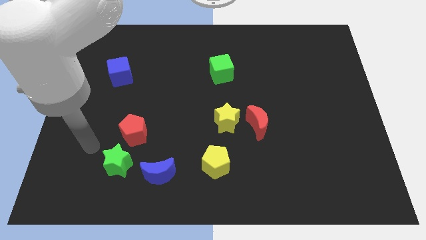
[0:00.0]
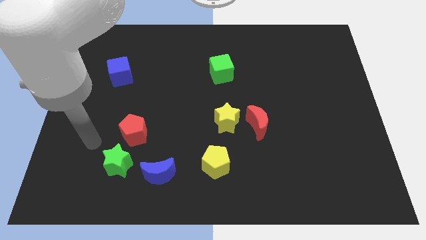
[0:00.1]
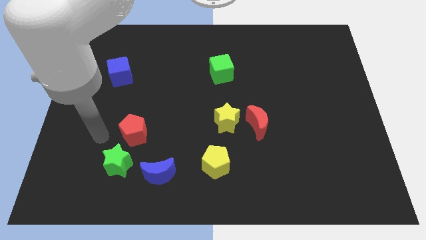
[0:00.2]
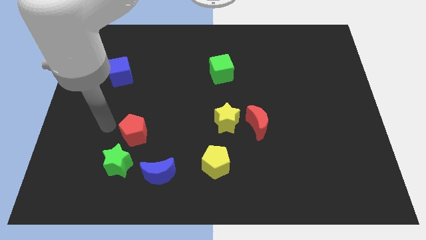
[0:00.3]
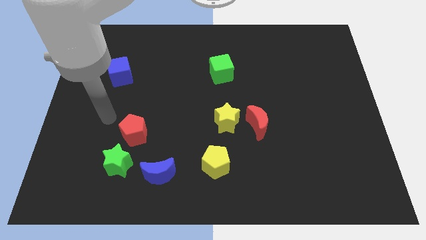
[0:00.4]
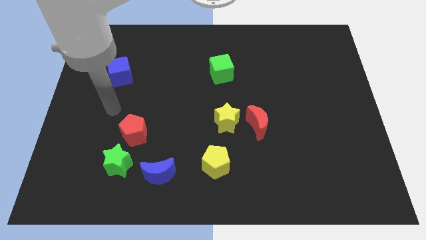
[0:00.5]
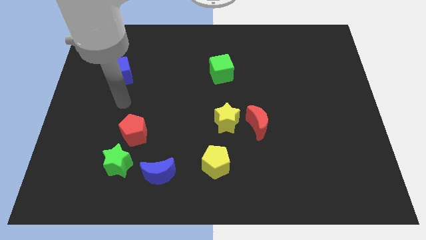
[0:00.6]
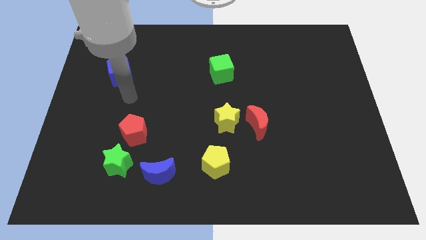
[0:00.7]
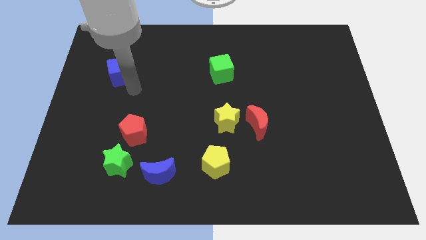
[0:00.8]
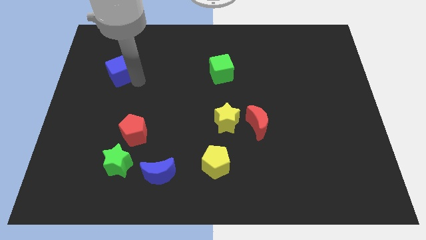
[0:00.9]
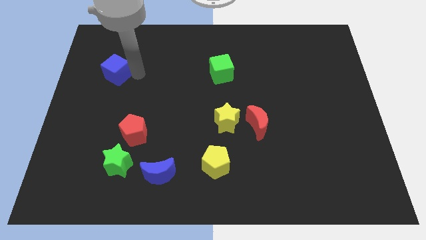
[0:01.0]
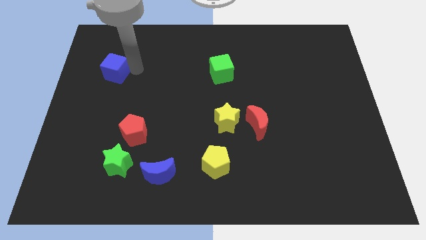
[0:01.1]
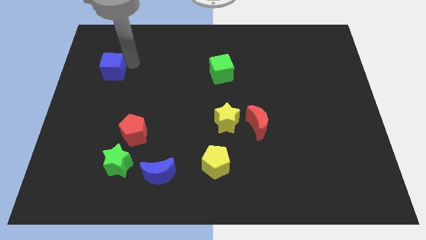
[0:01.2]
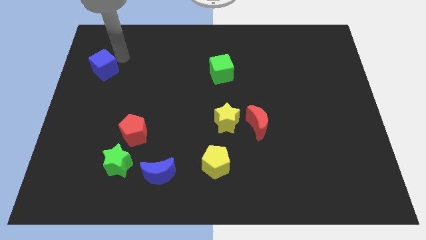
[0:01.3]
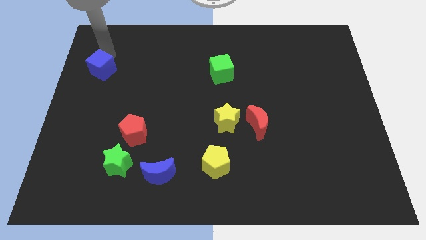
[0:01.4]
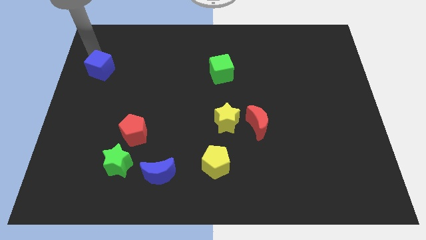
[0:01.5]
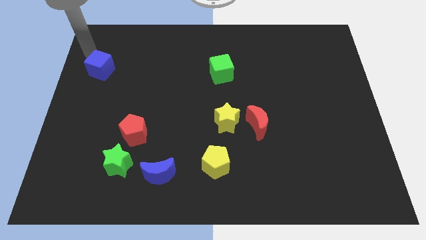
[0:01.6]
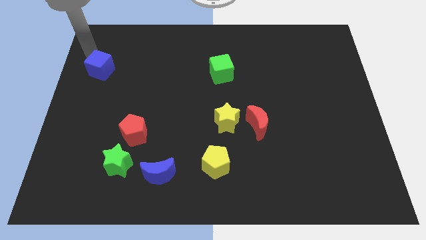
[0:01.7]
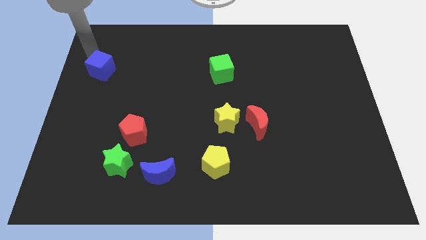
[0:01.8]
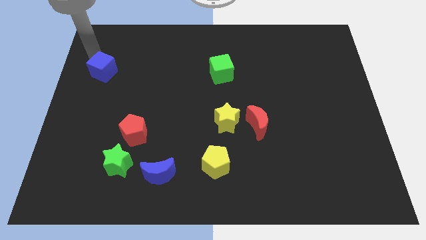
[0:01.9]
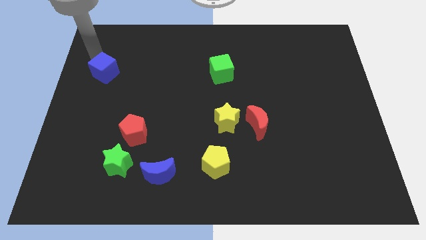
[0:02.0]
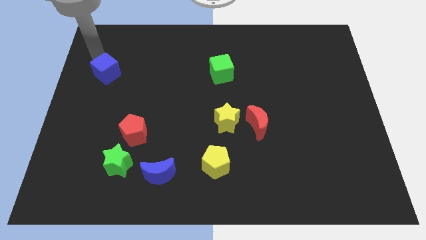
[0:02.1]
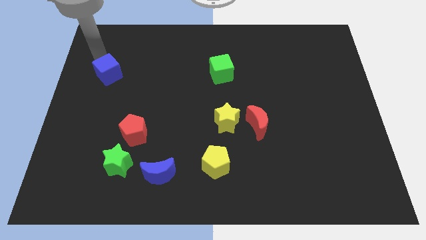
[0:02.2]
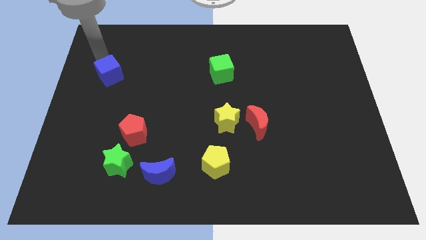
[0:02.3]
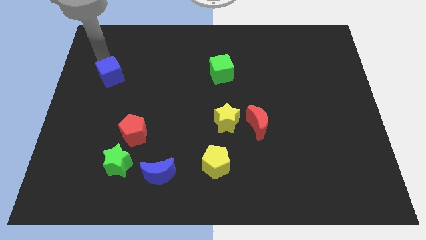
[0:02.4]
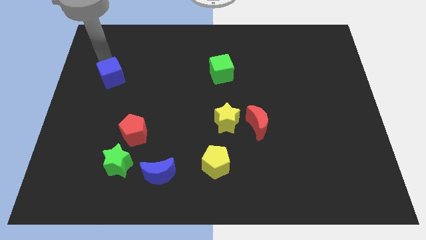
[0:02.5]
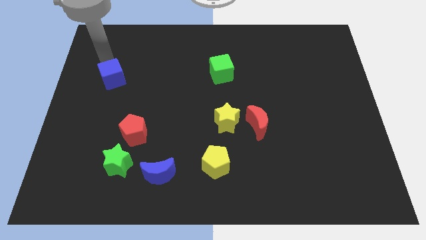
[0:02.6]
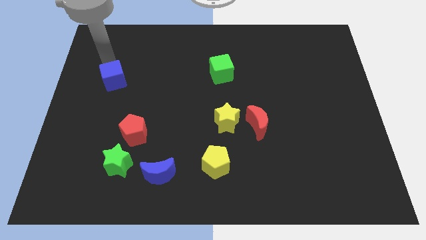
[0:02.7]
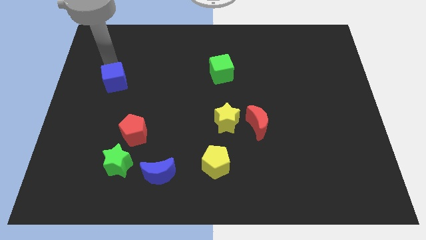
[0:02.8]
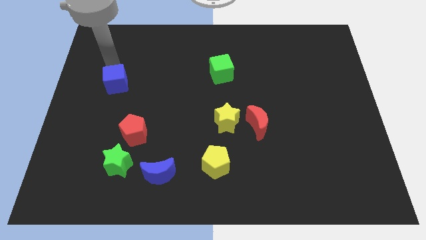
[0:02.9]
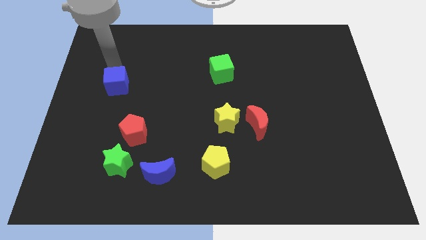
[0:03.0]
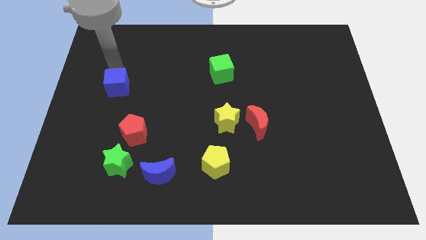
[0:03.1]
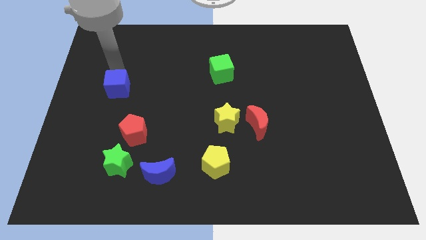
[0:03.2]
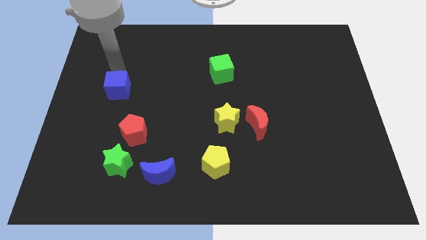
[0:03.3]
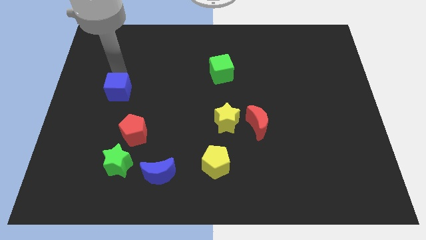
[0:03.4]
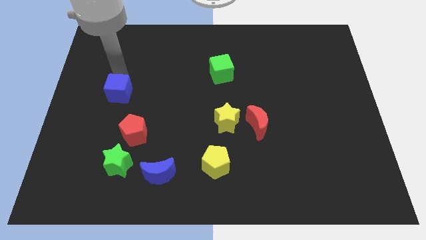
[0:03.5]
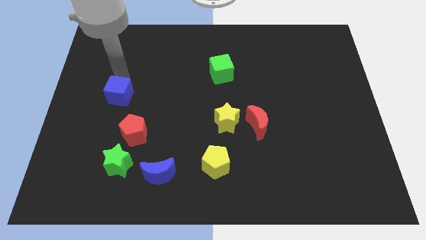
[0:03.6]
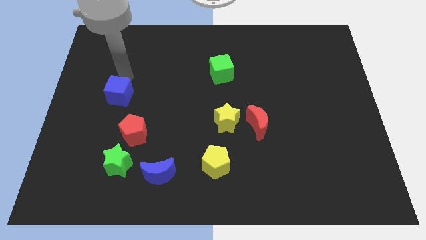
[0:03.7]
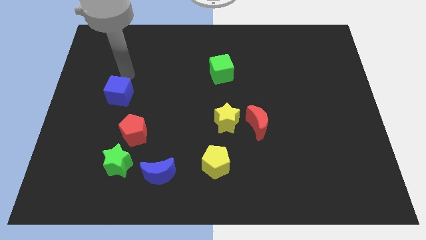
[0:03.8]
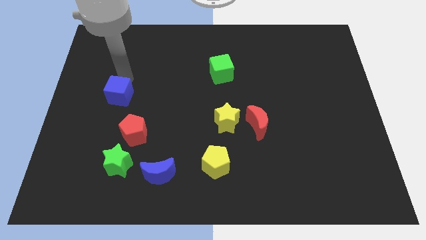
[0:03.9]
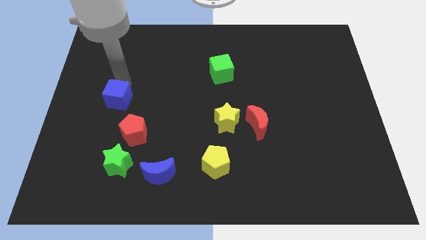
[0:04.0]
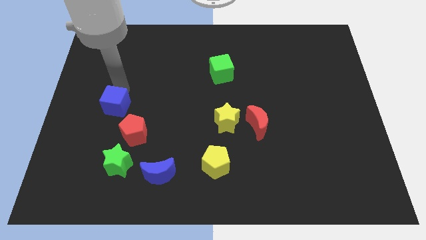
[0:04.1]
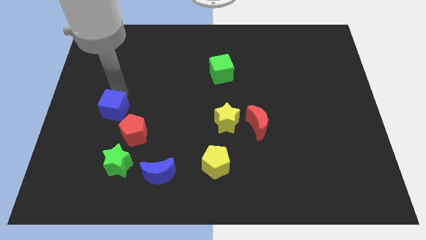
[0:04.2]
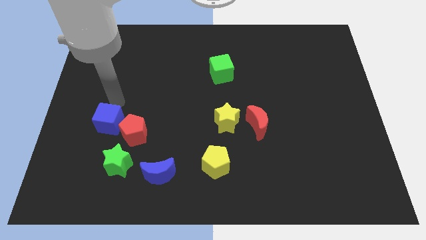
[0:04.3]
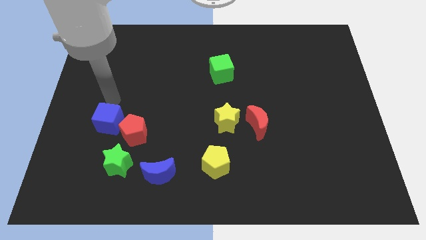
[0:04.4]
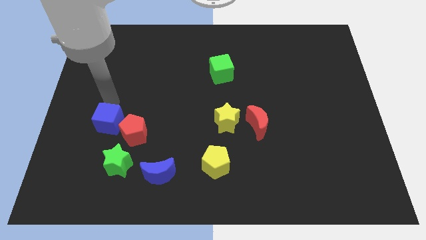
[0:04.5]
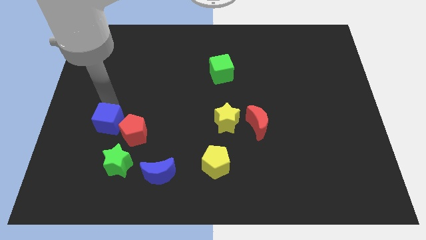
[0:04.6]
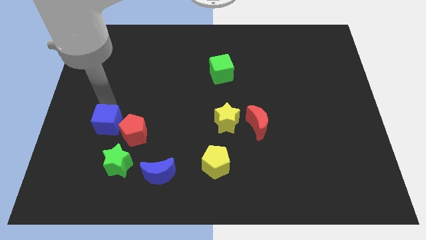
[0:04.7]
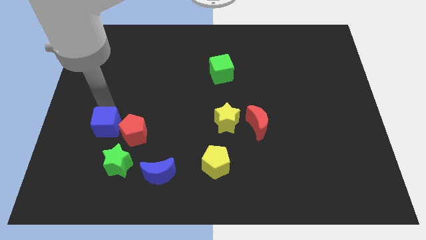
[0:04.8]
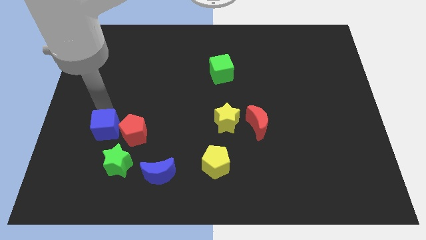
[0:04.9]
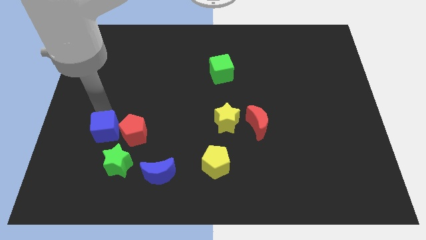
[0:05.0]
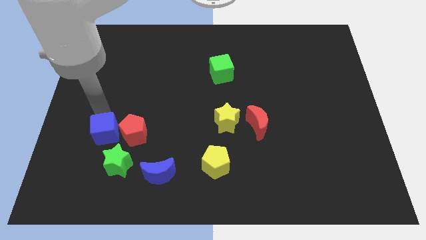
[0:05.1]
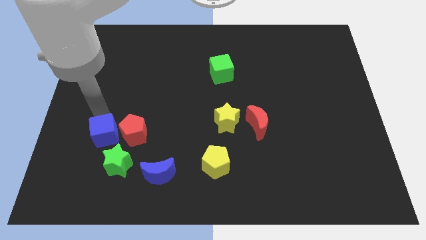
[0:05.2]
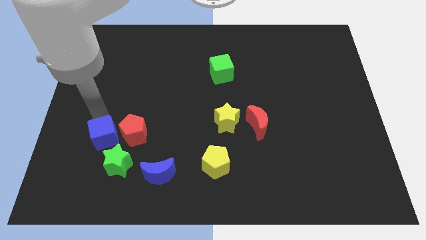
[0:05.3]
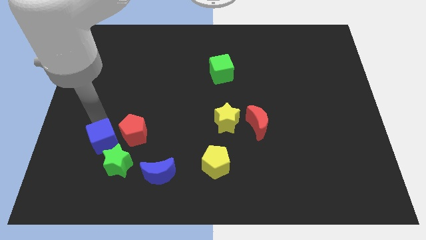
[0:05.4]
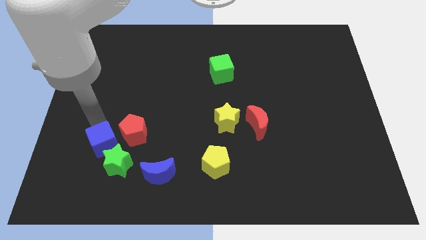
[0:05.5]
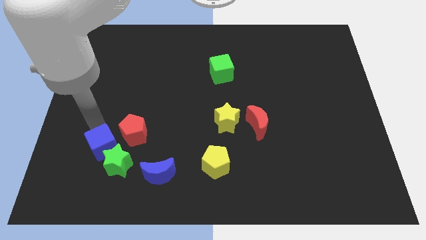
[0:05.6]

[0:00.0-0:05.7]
push the blue cube close to the green star

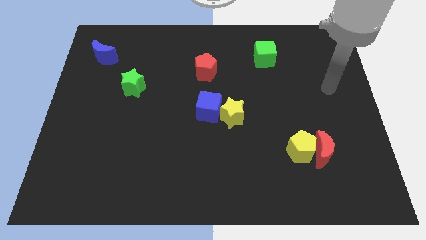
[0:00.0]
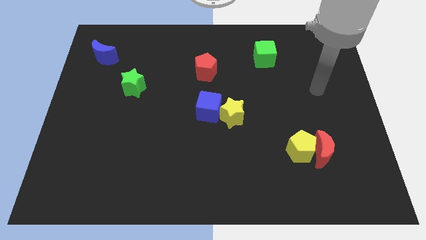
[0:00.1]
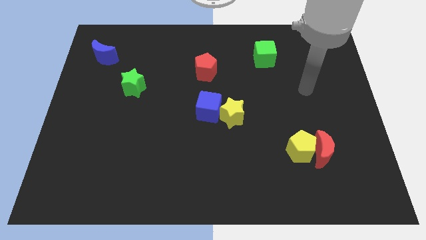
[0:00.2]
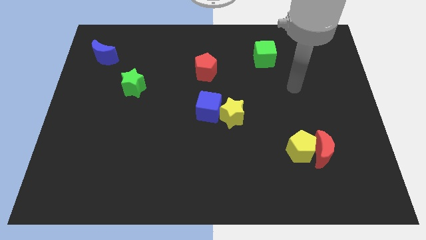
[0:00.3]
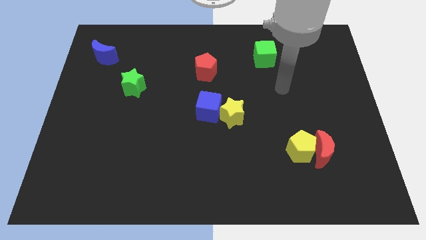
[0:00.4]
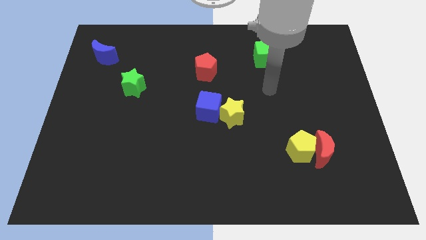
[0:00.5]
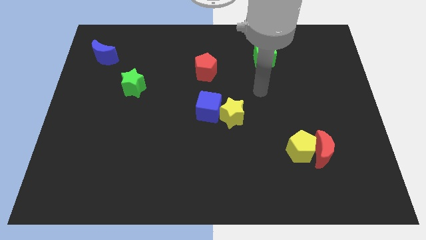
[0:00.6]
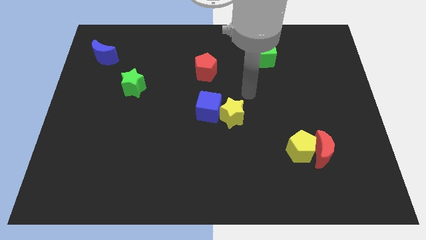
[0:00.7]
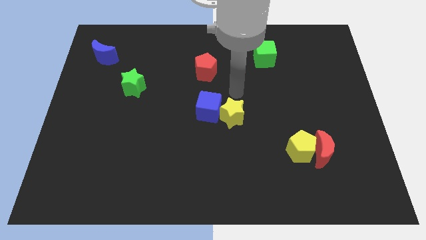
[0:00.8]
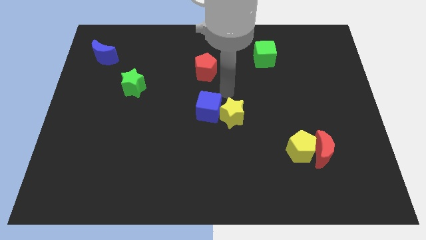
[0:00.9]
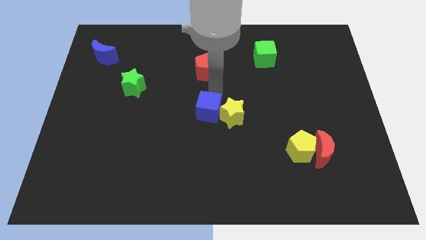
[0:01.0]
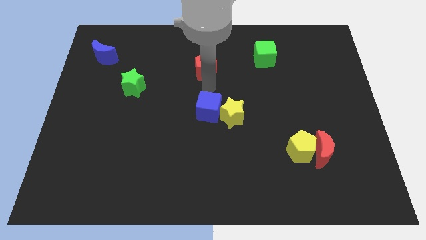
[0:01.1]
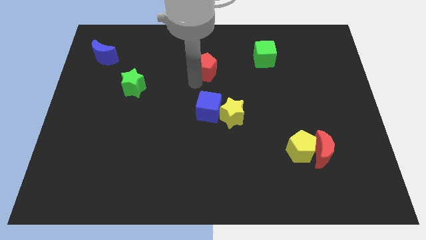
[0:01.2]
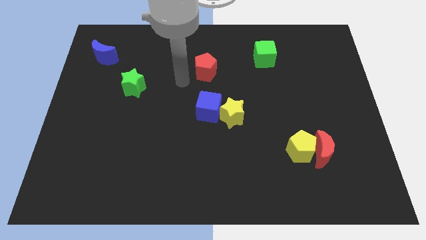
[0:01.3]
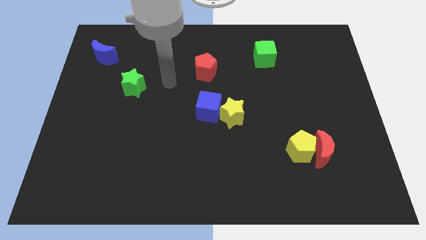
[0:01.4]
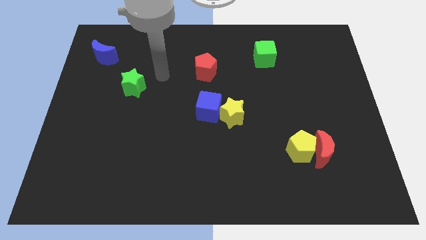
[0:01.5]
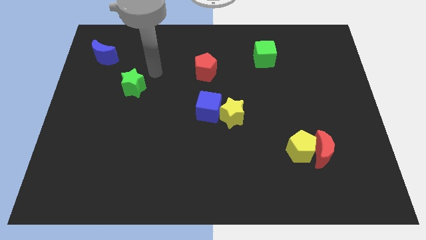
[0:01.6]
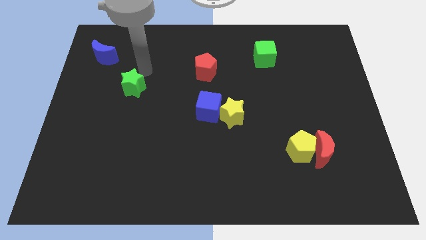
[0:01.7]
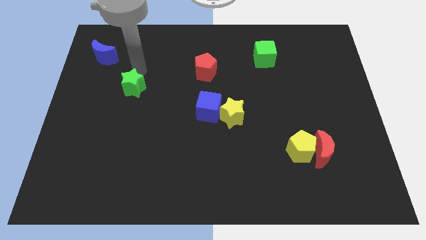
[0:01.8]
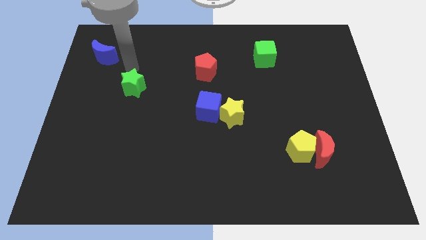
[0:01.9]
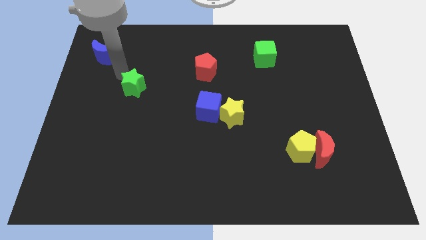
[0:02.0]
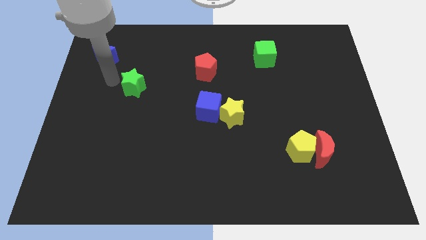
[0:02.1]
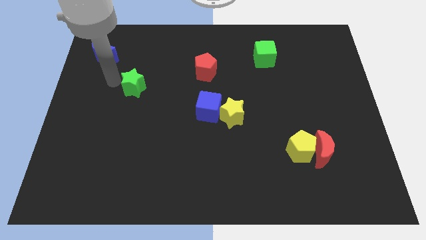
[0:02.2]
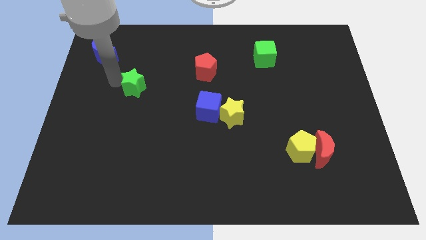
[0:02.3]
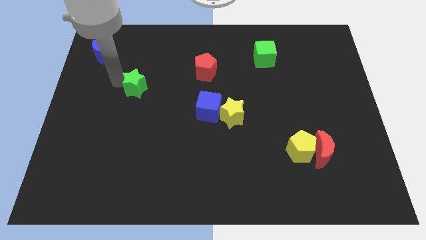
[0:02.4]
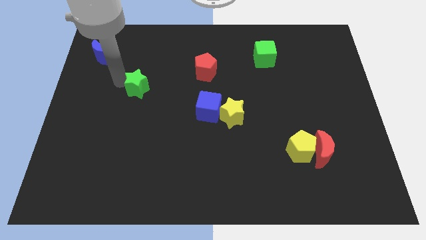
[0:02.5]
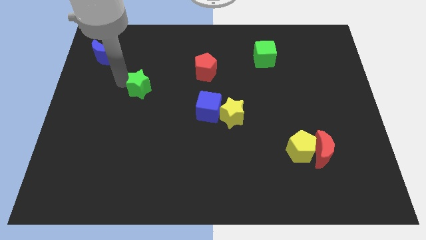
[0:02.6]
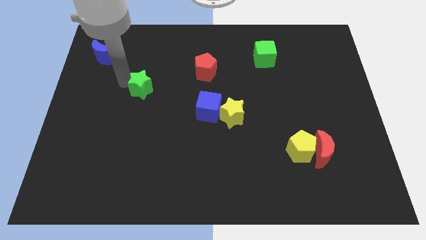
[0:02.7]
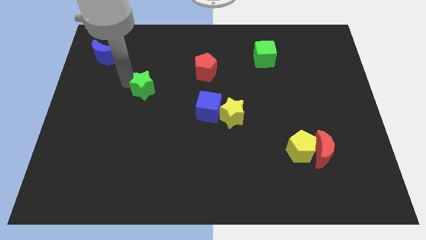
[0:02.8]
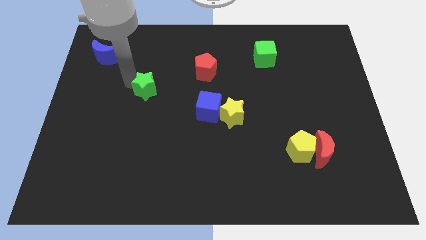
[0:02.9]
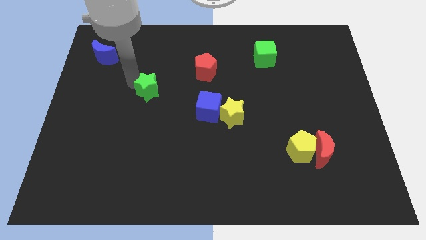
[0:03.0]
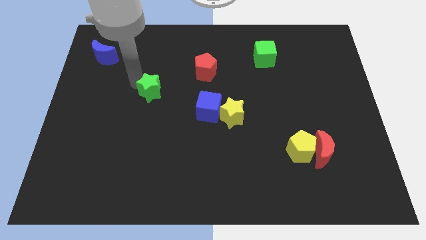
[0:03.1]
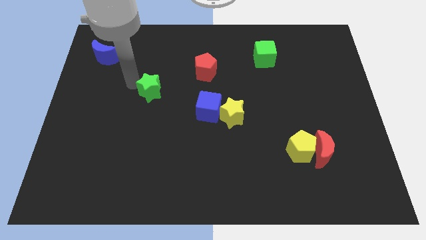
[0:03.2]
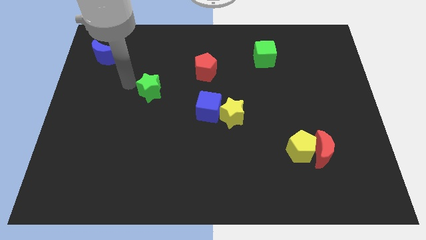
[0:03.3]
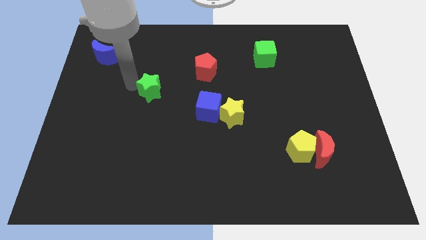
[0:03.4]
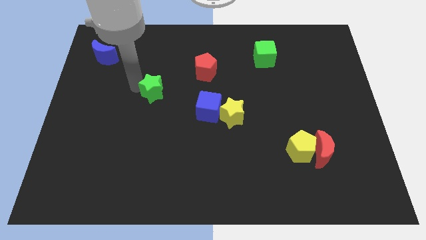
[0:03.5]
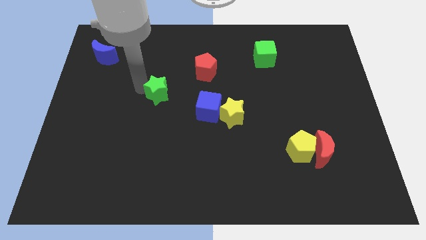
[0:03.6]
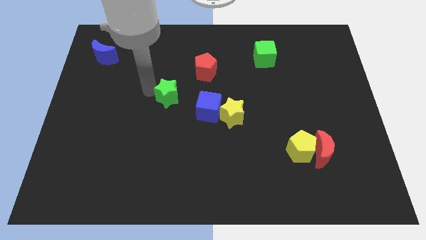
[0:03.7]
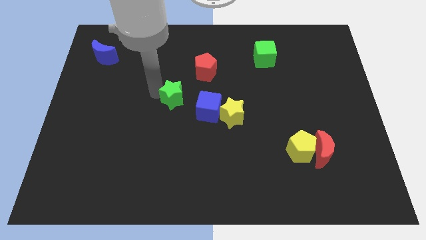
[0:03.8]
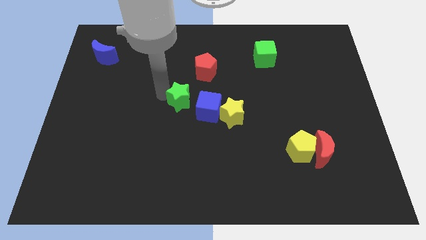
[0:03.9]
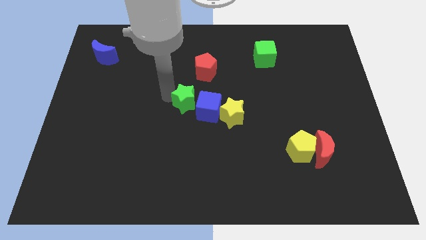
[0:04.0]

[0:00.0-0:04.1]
push the green star close to the blue cube
